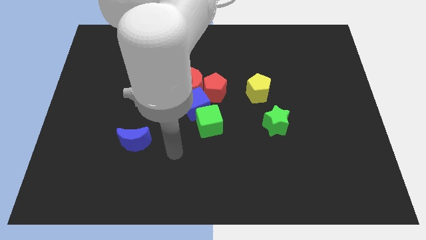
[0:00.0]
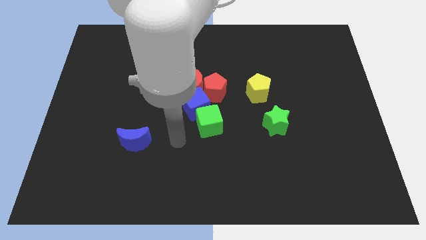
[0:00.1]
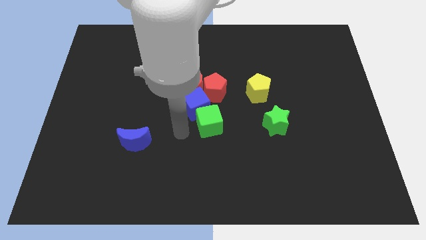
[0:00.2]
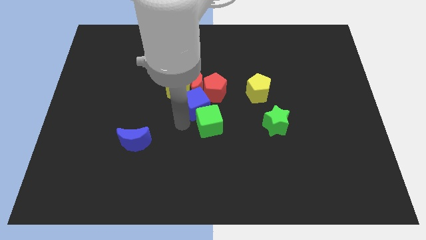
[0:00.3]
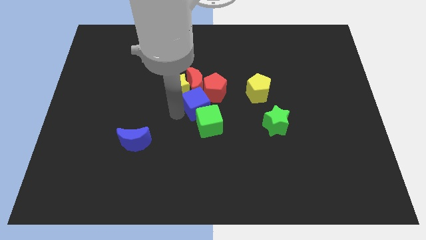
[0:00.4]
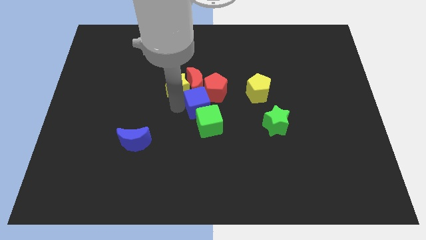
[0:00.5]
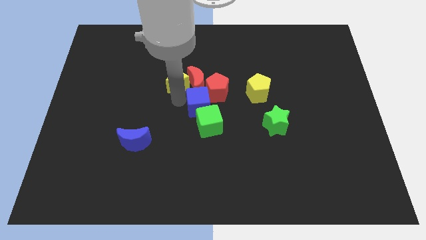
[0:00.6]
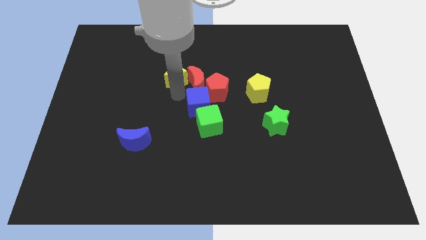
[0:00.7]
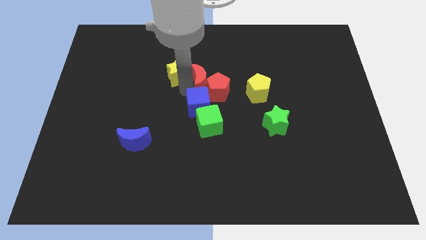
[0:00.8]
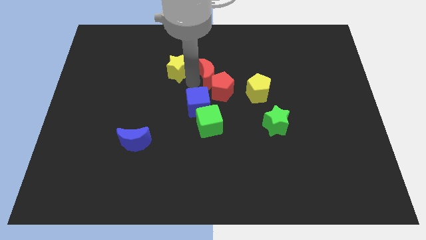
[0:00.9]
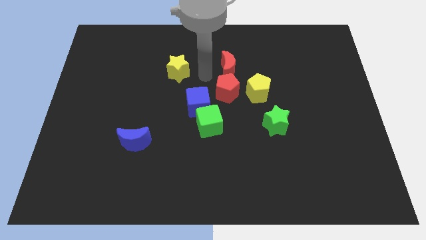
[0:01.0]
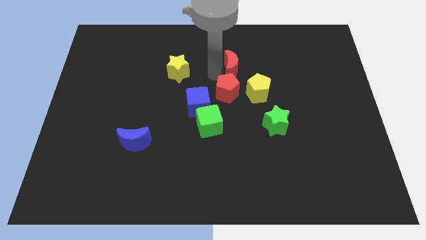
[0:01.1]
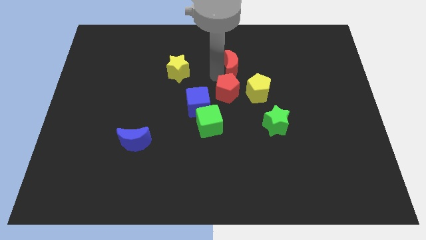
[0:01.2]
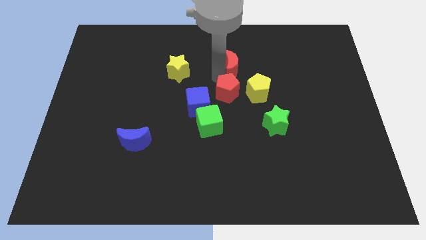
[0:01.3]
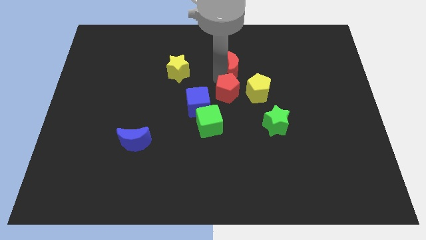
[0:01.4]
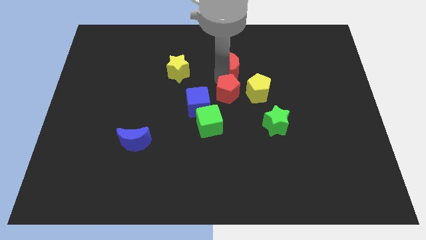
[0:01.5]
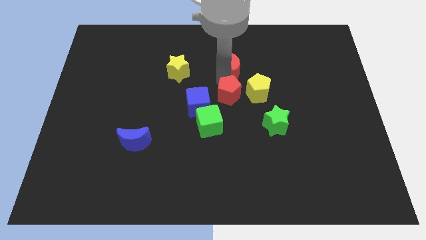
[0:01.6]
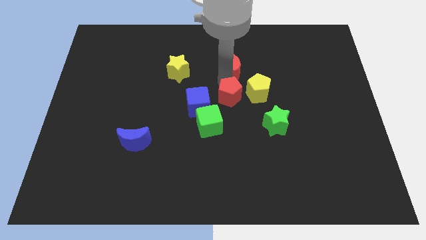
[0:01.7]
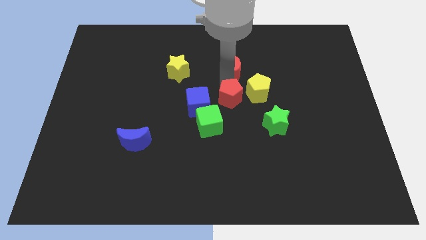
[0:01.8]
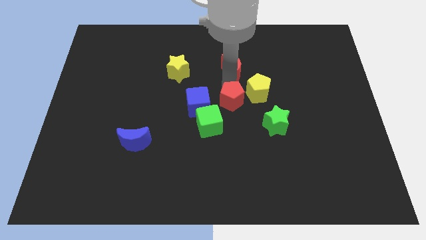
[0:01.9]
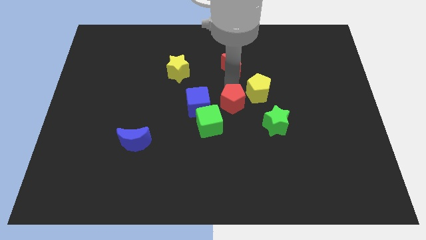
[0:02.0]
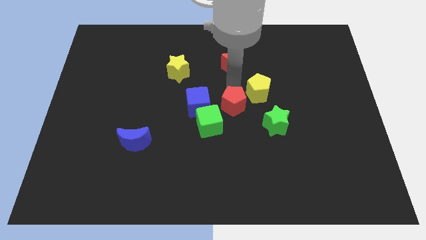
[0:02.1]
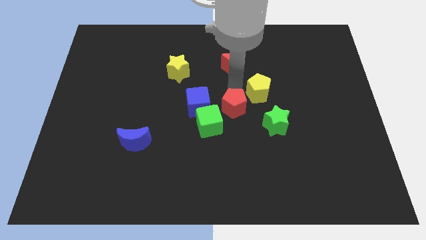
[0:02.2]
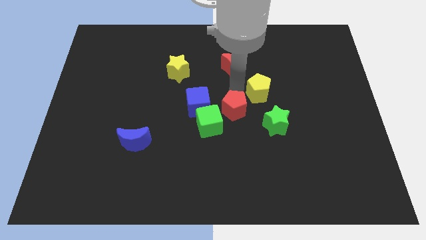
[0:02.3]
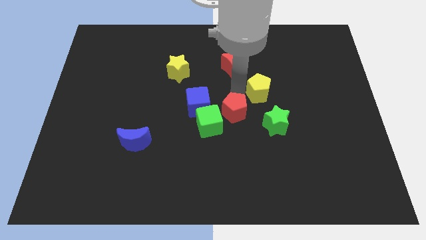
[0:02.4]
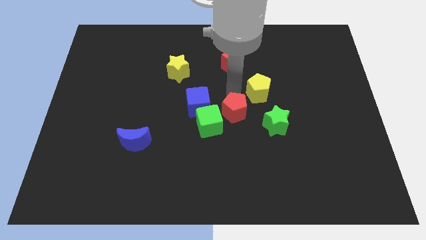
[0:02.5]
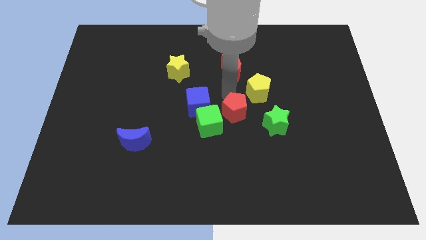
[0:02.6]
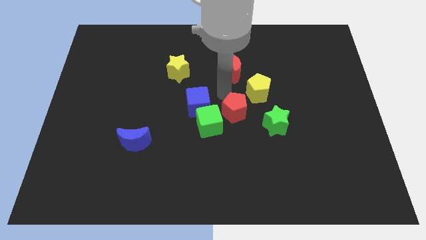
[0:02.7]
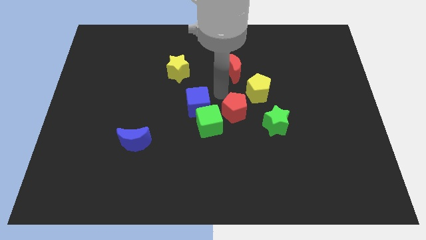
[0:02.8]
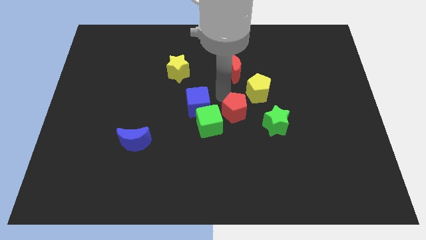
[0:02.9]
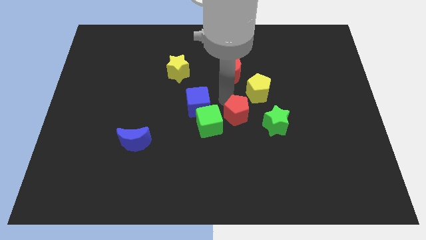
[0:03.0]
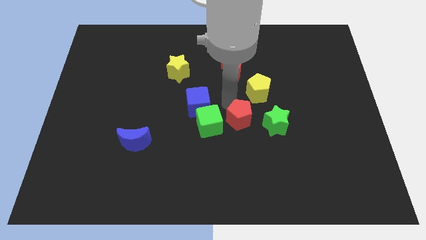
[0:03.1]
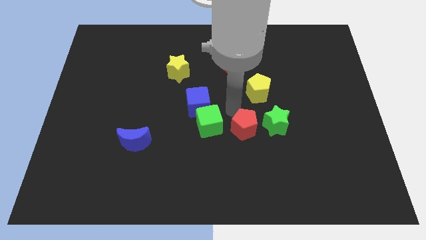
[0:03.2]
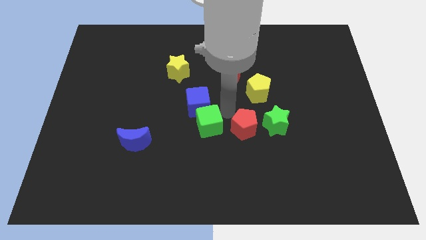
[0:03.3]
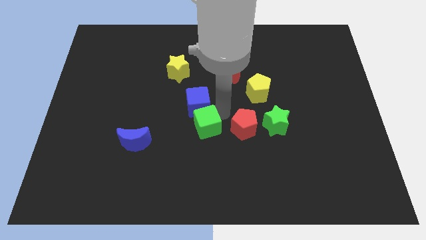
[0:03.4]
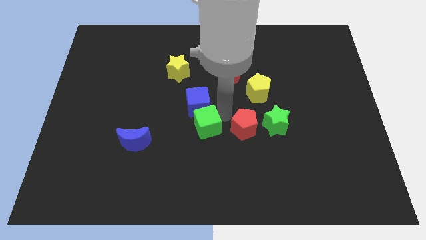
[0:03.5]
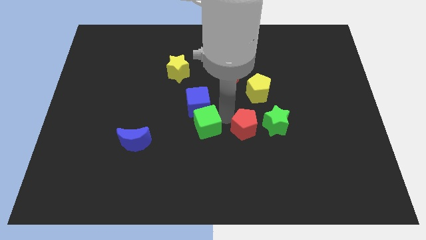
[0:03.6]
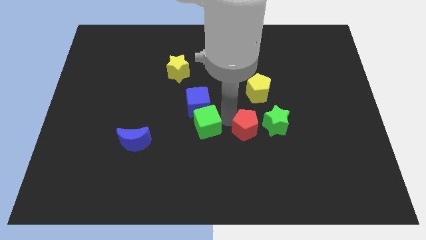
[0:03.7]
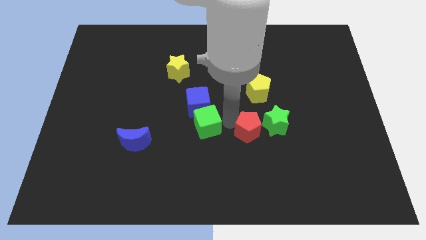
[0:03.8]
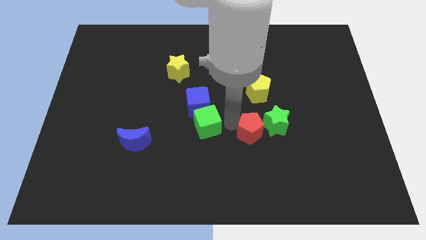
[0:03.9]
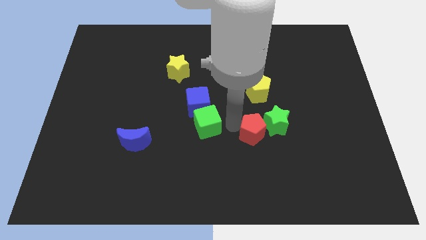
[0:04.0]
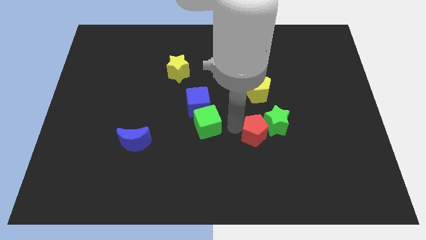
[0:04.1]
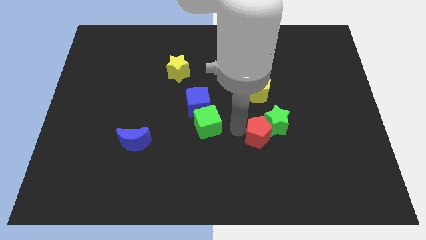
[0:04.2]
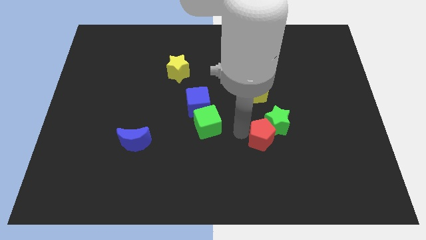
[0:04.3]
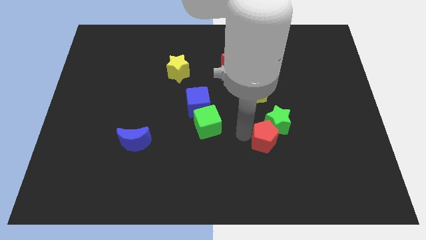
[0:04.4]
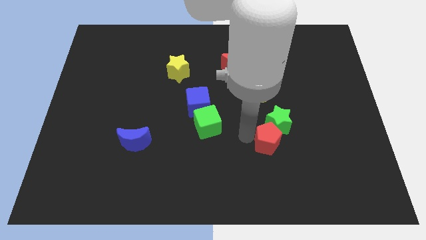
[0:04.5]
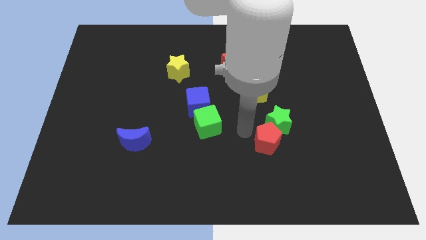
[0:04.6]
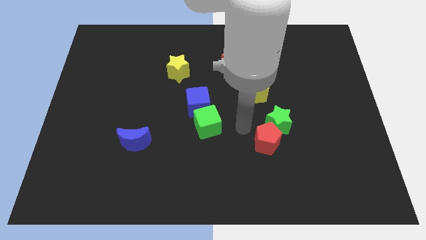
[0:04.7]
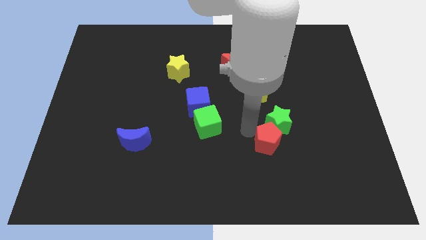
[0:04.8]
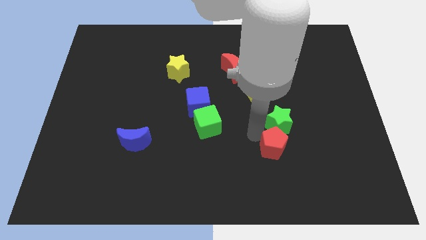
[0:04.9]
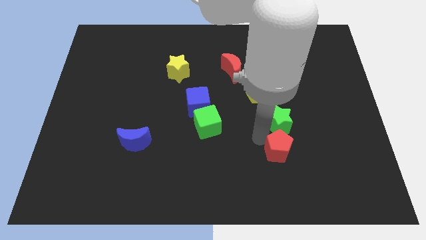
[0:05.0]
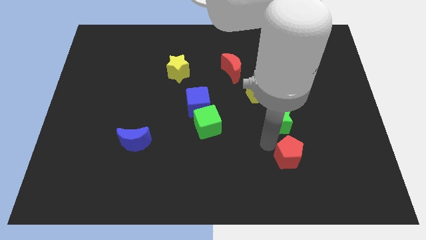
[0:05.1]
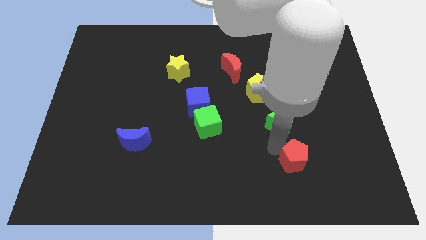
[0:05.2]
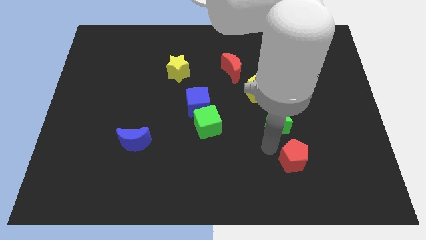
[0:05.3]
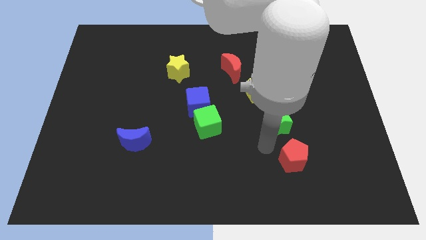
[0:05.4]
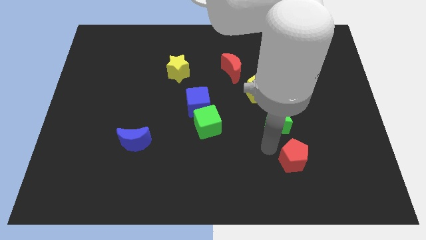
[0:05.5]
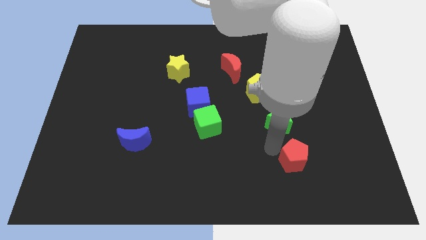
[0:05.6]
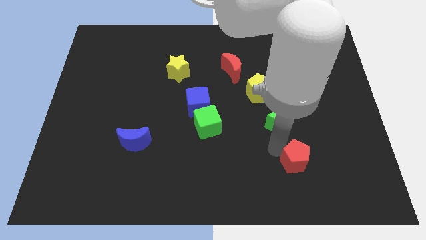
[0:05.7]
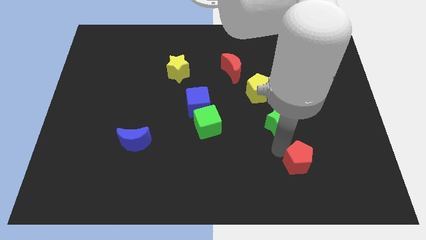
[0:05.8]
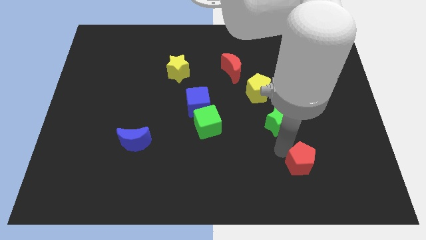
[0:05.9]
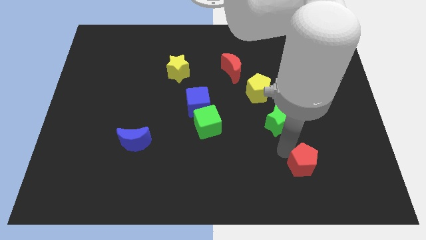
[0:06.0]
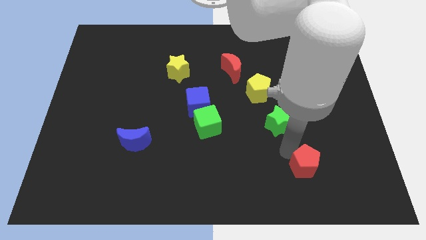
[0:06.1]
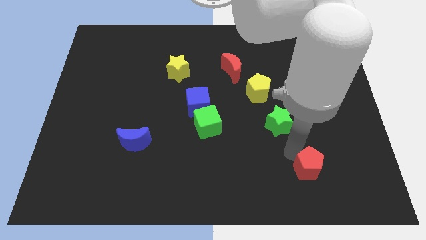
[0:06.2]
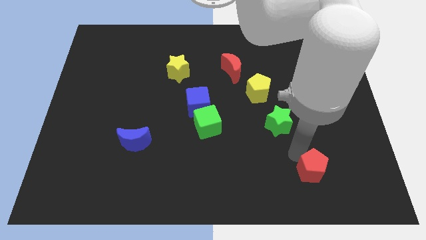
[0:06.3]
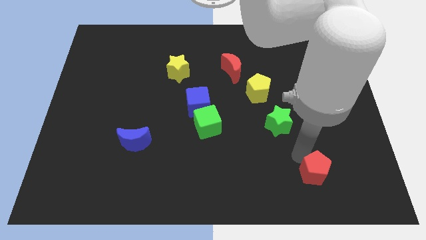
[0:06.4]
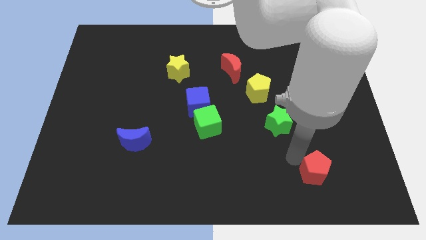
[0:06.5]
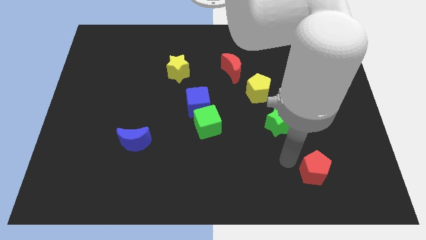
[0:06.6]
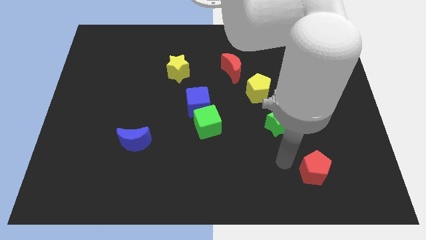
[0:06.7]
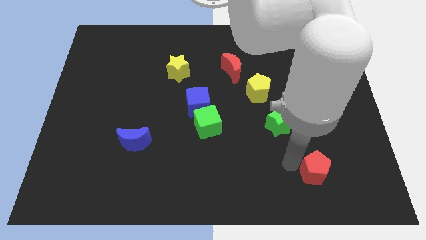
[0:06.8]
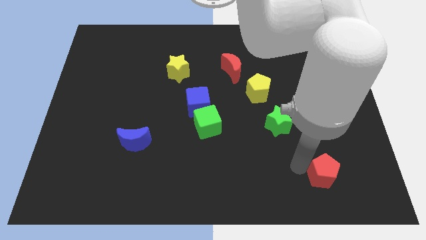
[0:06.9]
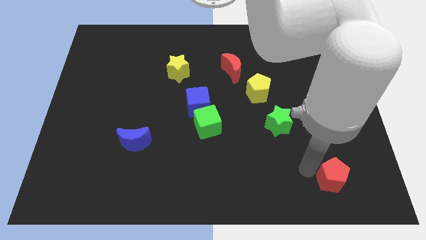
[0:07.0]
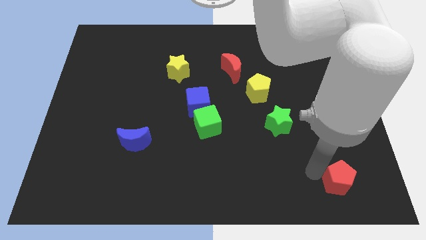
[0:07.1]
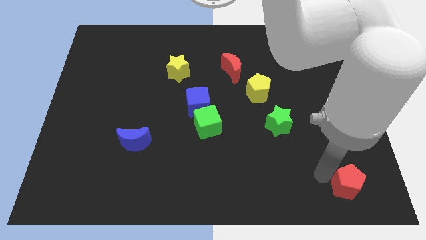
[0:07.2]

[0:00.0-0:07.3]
put the red pentagon to the bottom right of the board

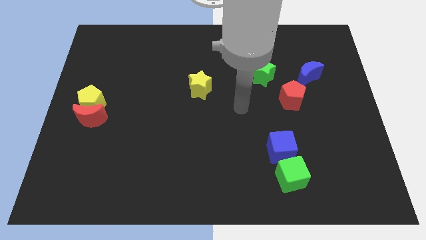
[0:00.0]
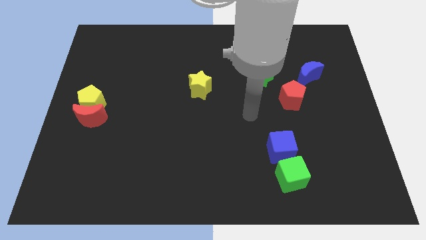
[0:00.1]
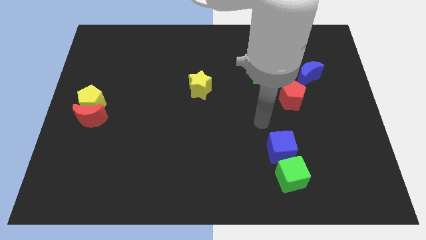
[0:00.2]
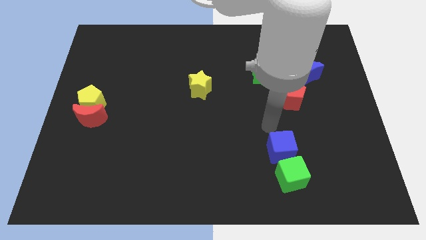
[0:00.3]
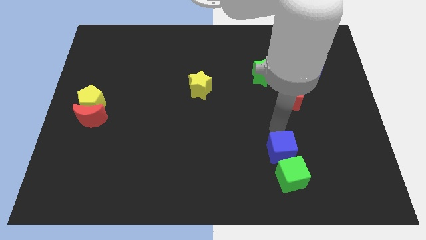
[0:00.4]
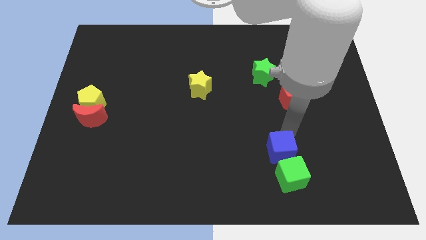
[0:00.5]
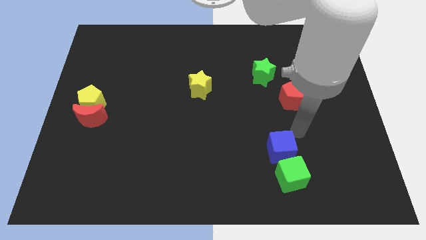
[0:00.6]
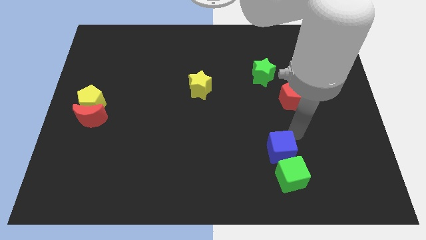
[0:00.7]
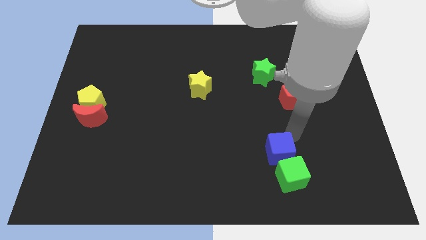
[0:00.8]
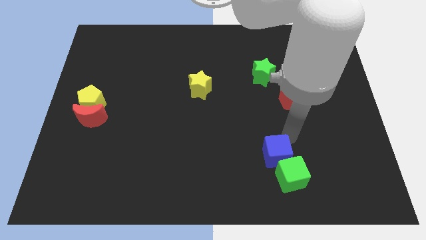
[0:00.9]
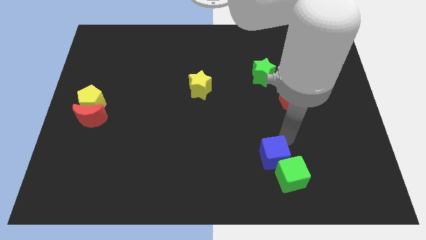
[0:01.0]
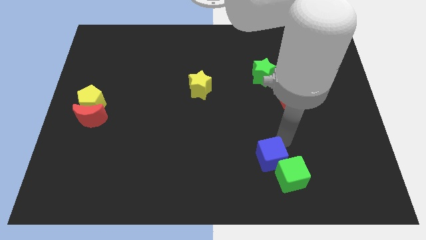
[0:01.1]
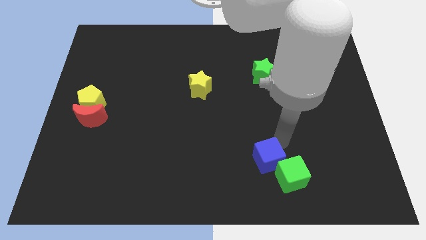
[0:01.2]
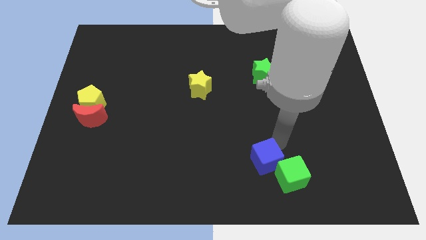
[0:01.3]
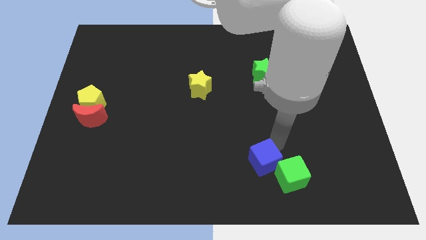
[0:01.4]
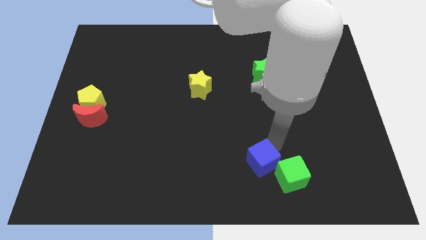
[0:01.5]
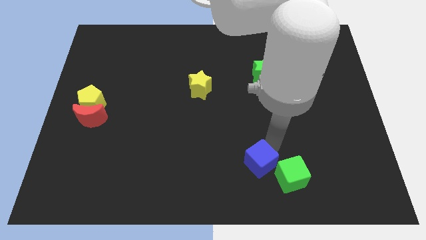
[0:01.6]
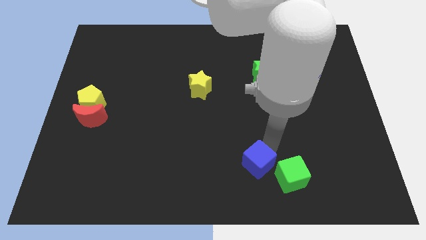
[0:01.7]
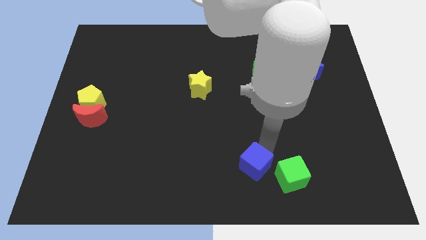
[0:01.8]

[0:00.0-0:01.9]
put the blue cube to the bottom
